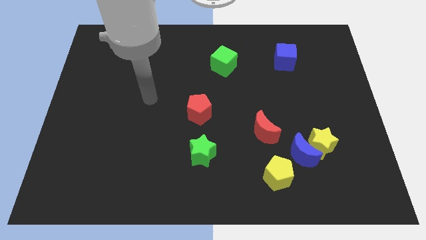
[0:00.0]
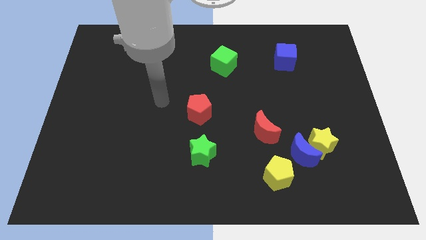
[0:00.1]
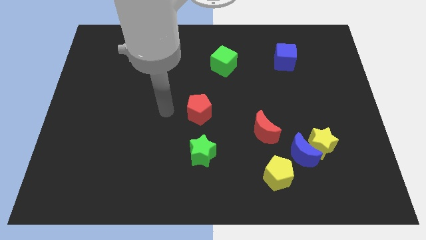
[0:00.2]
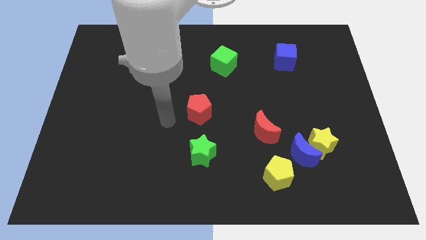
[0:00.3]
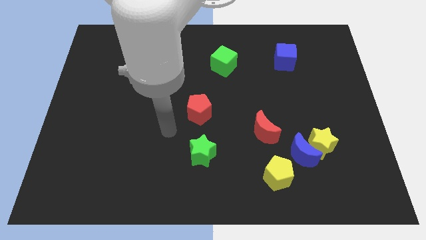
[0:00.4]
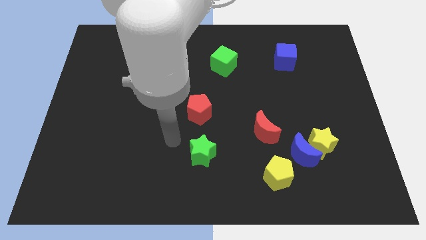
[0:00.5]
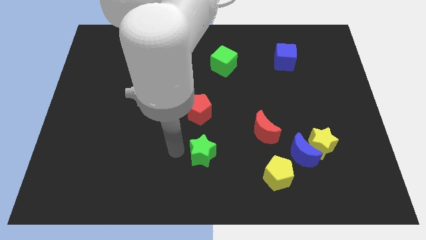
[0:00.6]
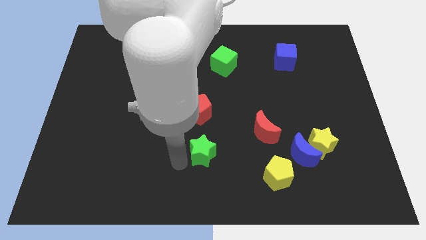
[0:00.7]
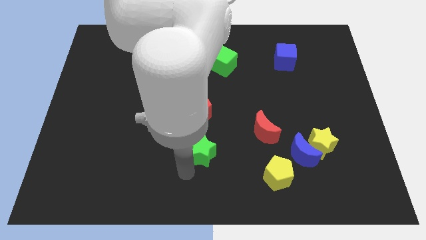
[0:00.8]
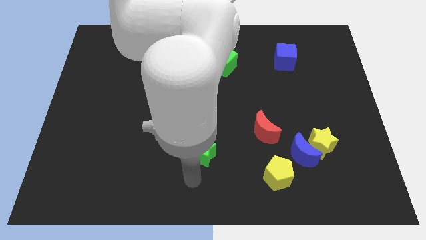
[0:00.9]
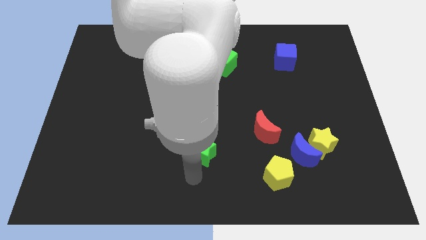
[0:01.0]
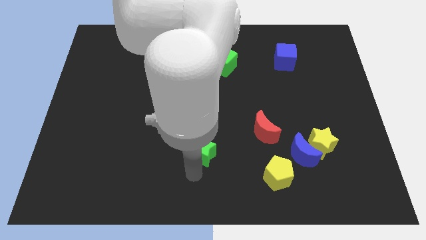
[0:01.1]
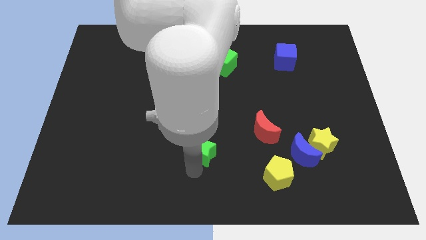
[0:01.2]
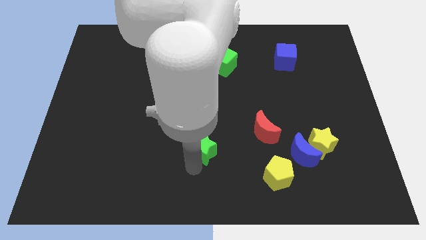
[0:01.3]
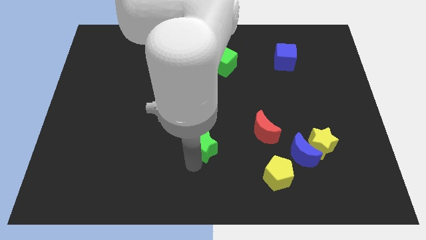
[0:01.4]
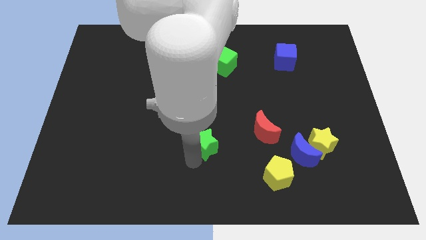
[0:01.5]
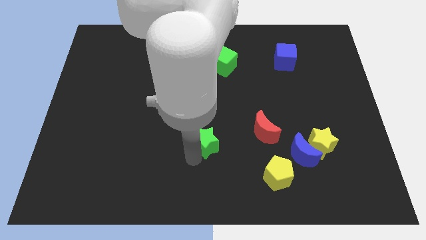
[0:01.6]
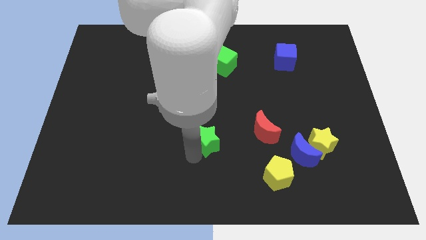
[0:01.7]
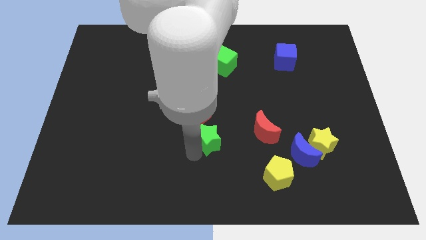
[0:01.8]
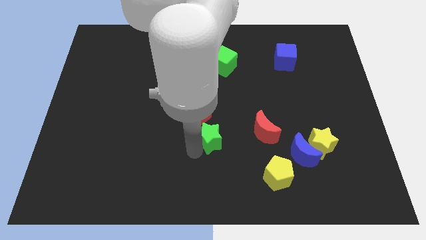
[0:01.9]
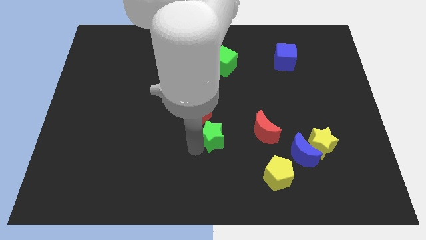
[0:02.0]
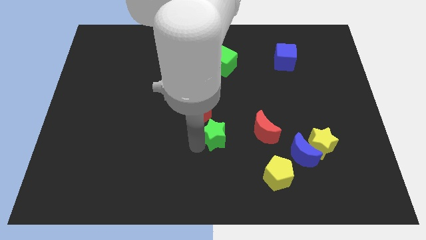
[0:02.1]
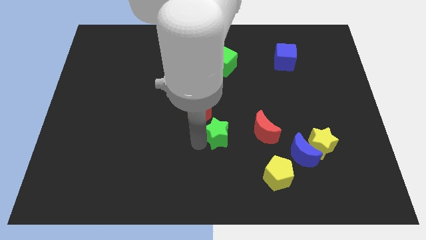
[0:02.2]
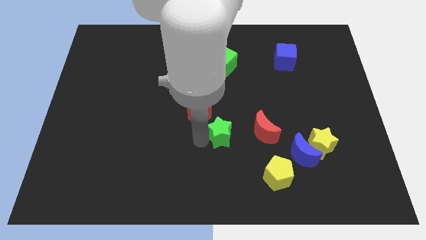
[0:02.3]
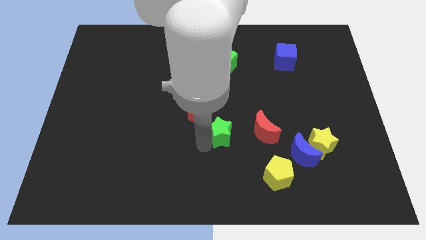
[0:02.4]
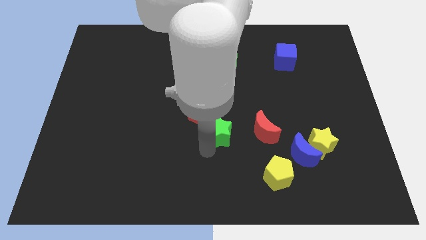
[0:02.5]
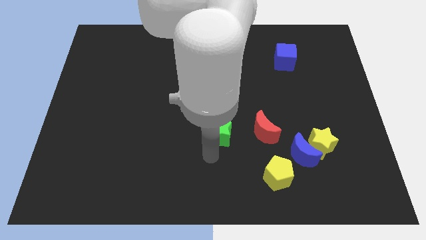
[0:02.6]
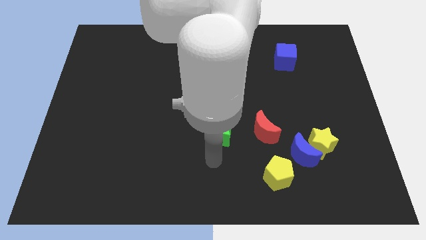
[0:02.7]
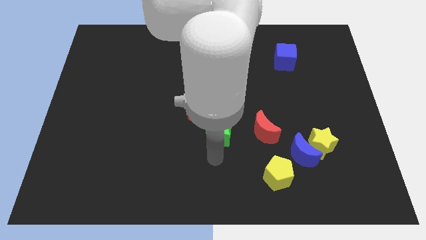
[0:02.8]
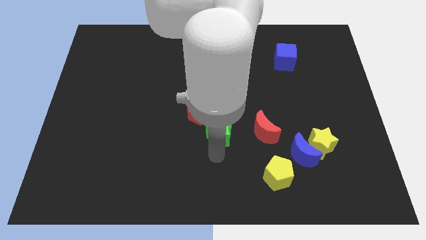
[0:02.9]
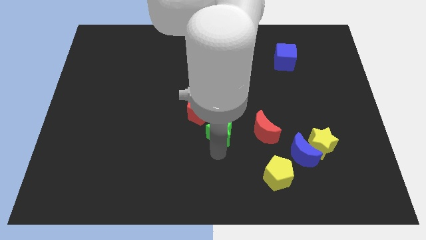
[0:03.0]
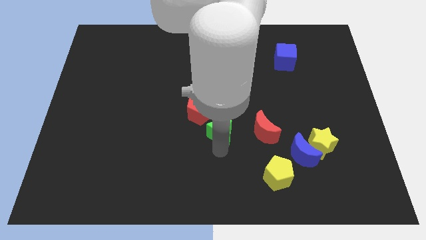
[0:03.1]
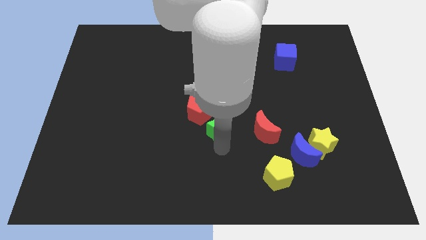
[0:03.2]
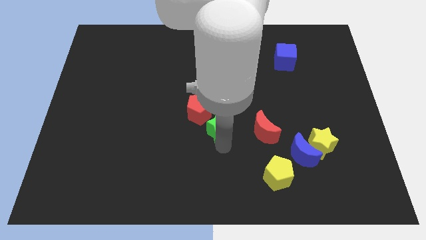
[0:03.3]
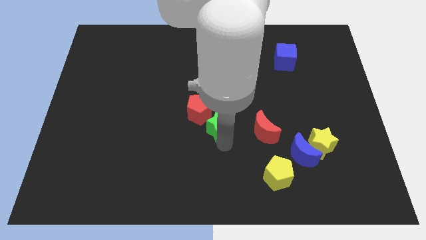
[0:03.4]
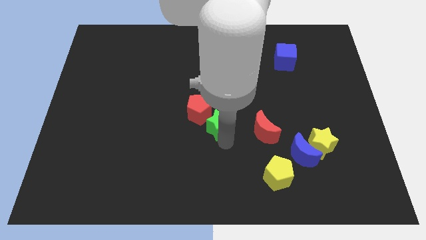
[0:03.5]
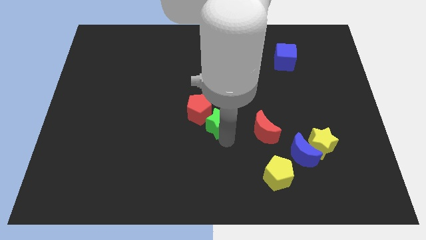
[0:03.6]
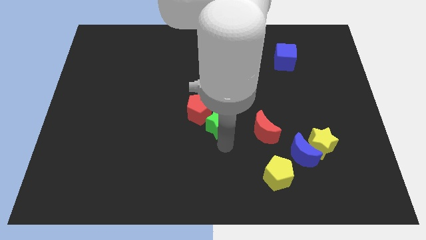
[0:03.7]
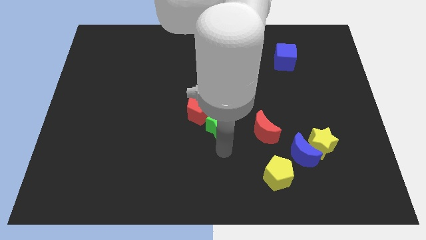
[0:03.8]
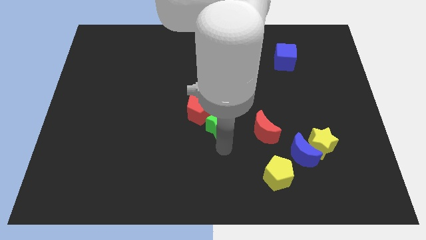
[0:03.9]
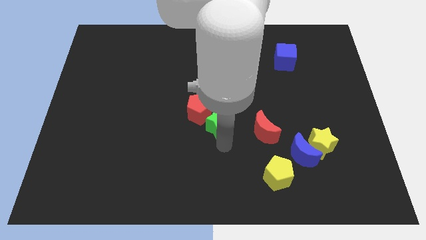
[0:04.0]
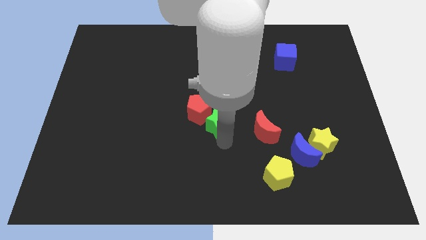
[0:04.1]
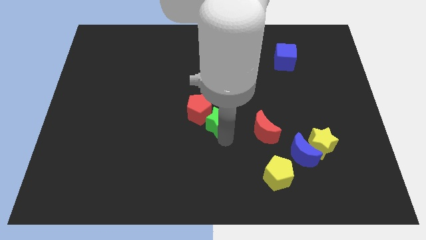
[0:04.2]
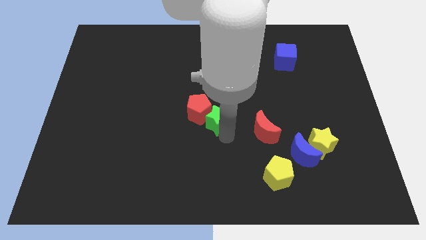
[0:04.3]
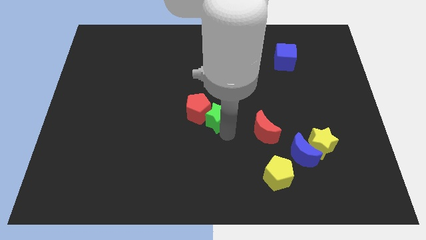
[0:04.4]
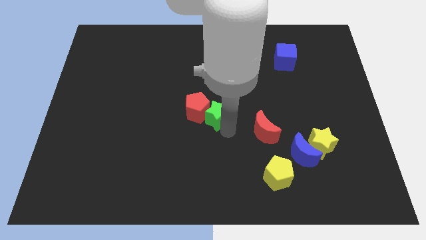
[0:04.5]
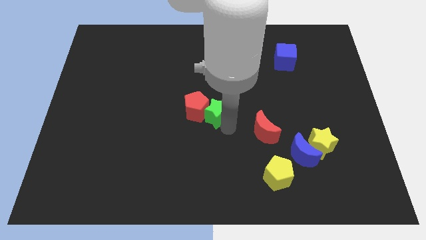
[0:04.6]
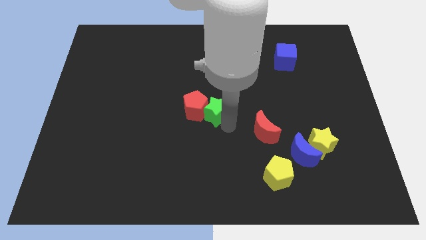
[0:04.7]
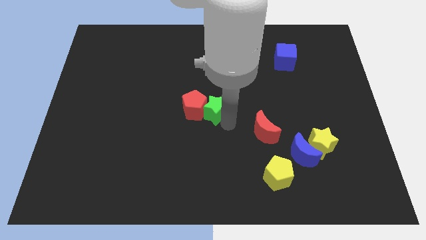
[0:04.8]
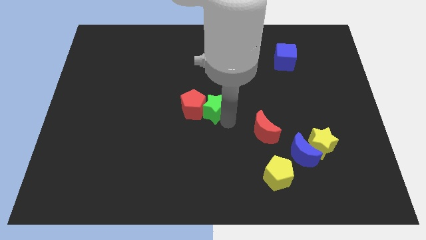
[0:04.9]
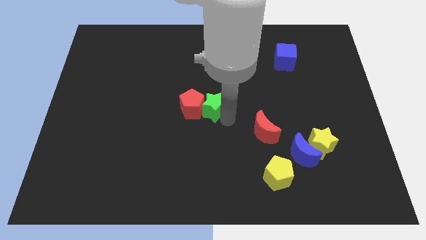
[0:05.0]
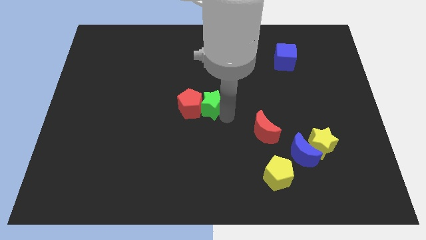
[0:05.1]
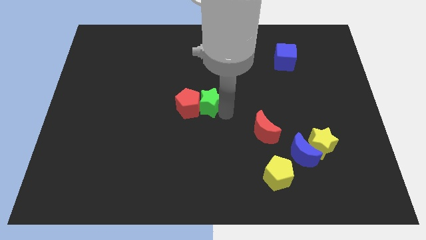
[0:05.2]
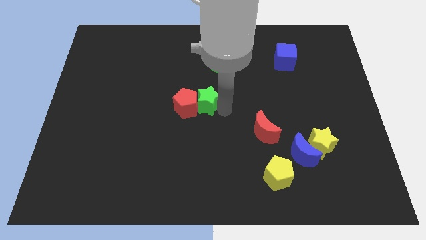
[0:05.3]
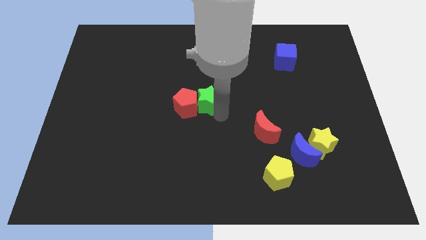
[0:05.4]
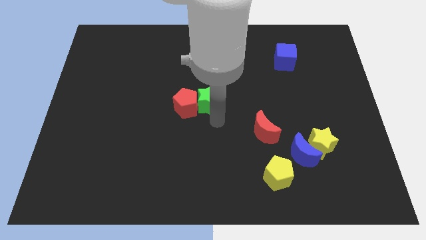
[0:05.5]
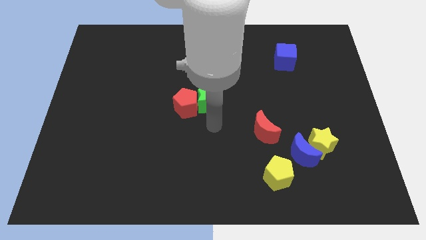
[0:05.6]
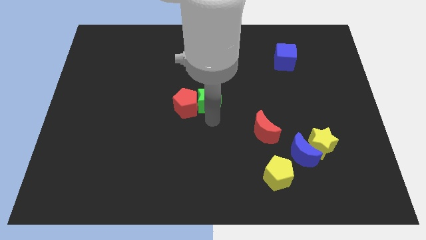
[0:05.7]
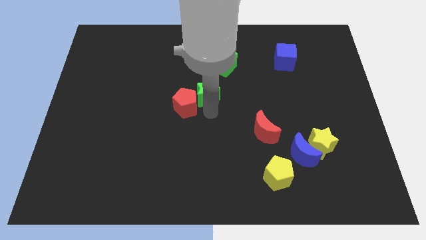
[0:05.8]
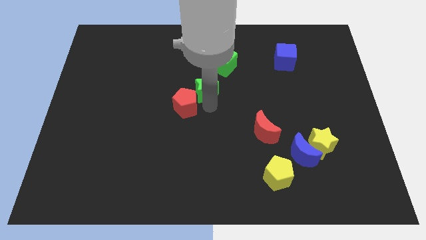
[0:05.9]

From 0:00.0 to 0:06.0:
slide the green star to the bottom left of the green cube

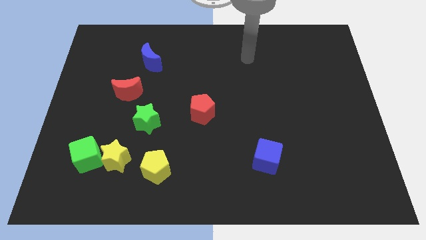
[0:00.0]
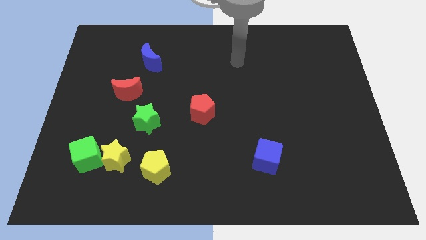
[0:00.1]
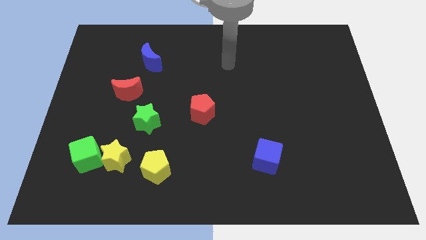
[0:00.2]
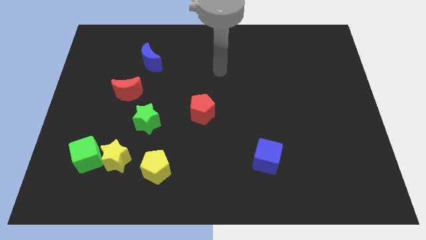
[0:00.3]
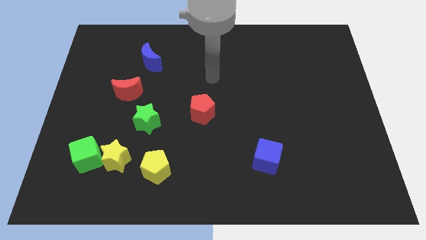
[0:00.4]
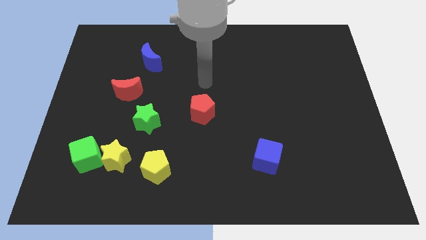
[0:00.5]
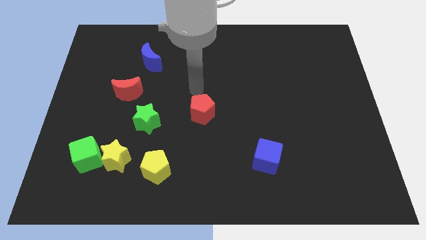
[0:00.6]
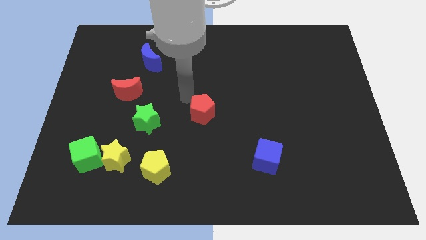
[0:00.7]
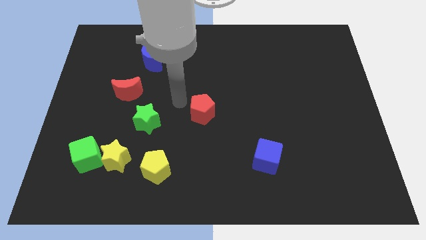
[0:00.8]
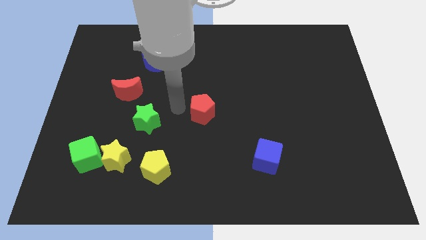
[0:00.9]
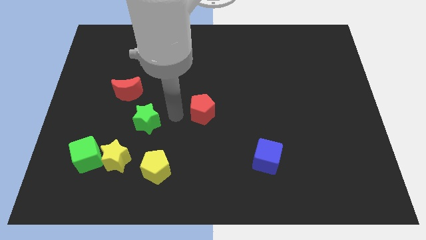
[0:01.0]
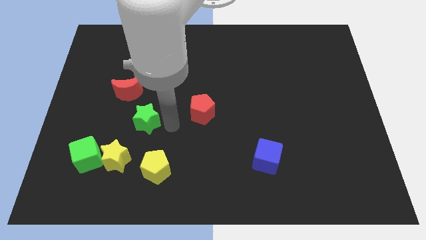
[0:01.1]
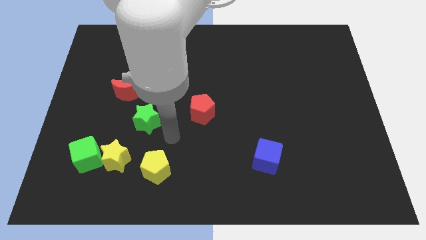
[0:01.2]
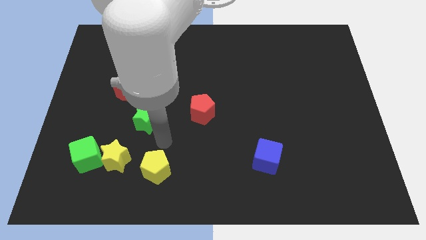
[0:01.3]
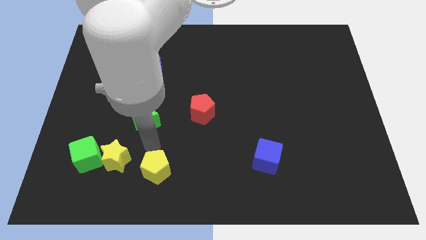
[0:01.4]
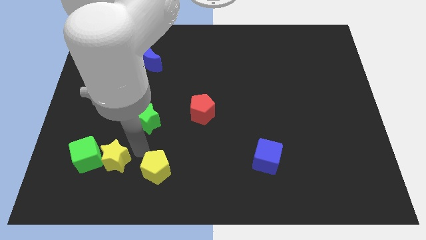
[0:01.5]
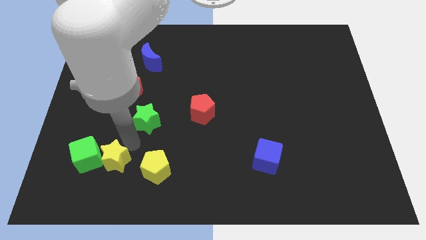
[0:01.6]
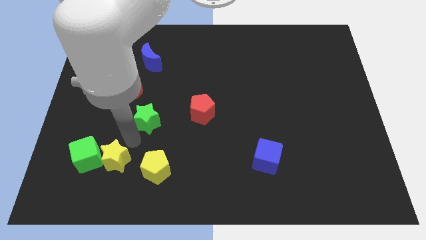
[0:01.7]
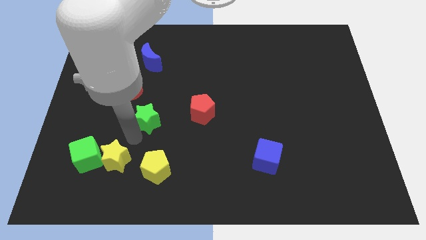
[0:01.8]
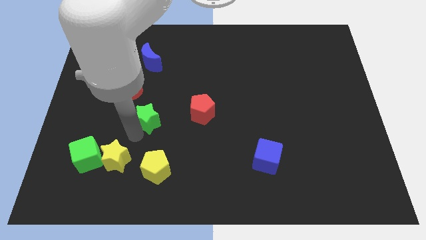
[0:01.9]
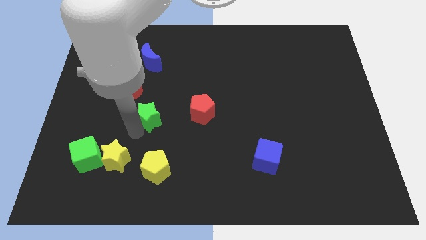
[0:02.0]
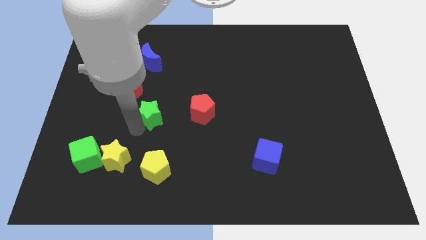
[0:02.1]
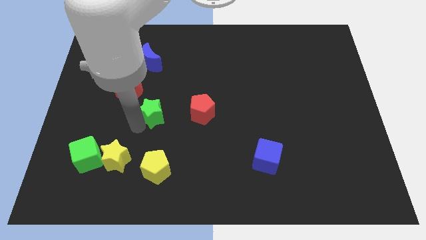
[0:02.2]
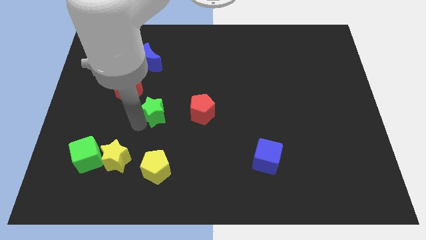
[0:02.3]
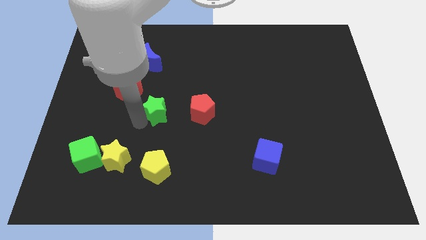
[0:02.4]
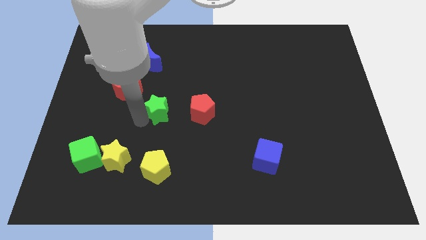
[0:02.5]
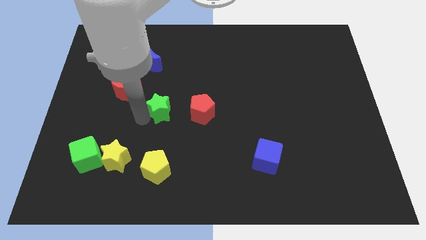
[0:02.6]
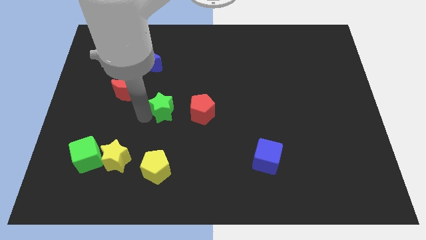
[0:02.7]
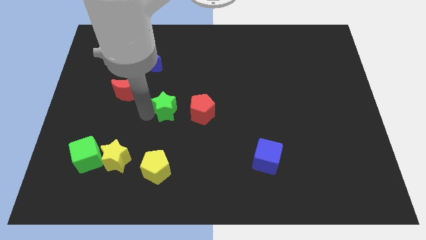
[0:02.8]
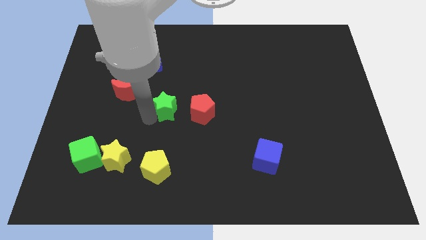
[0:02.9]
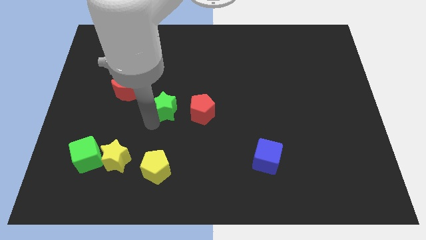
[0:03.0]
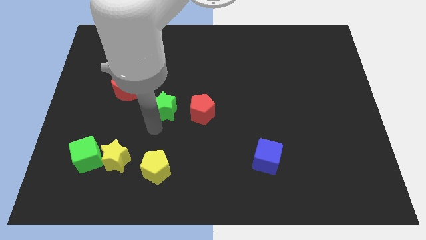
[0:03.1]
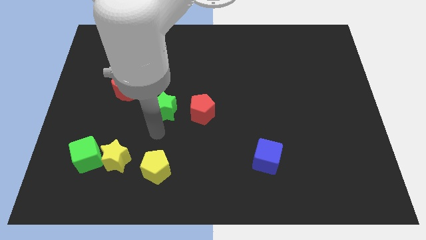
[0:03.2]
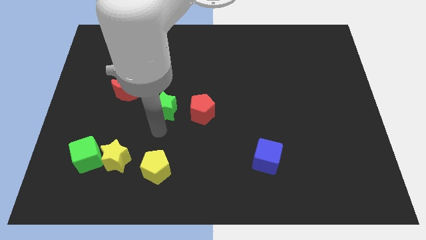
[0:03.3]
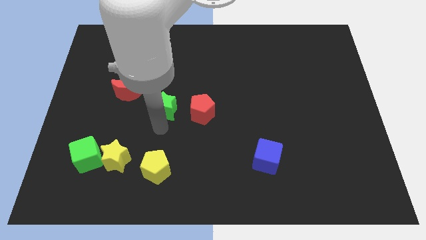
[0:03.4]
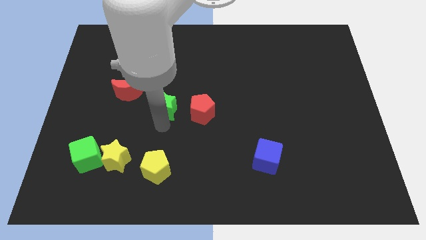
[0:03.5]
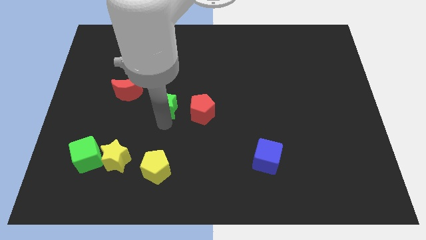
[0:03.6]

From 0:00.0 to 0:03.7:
put the green star to the right side of the red moon
